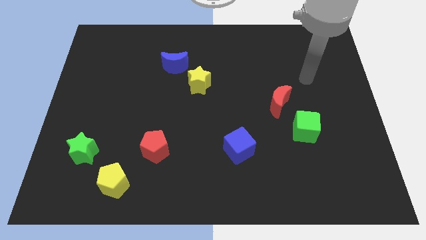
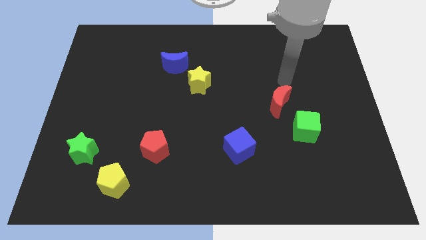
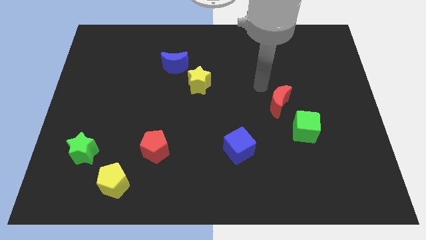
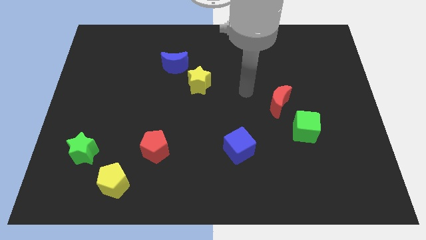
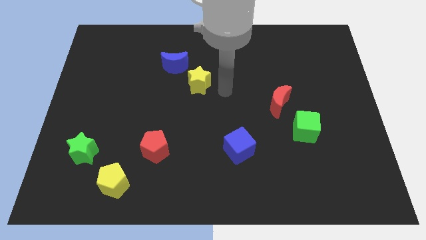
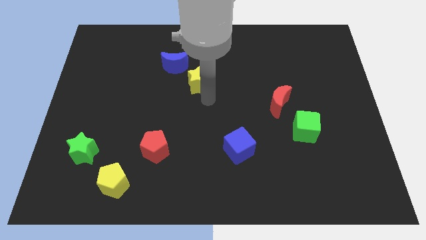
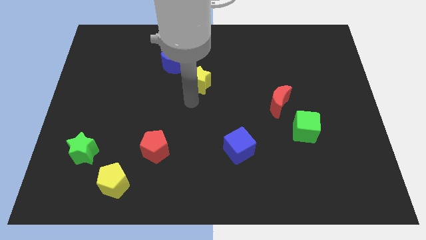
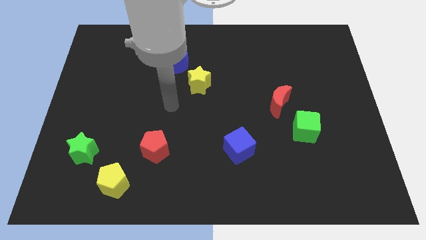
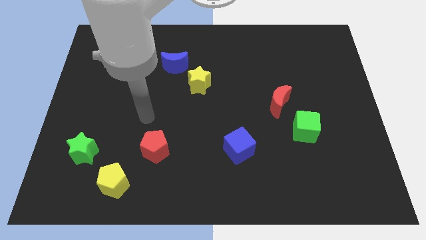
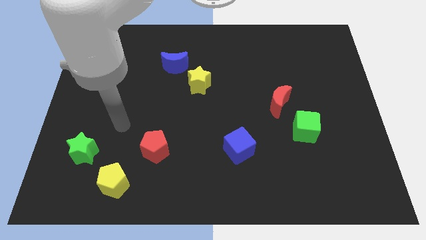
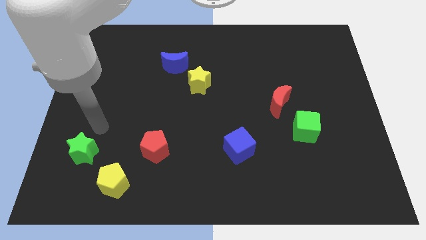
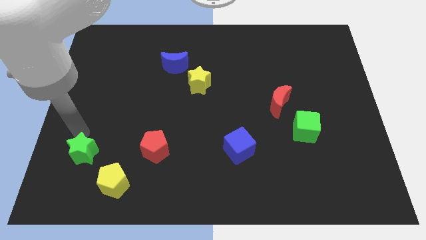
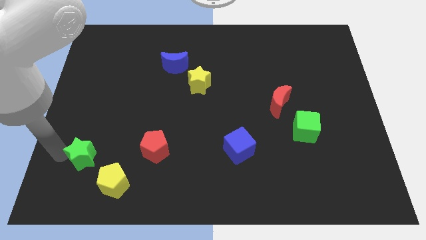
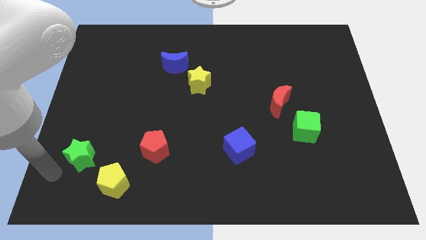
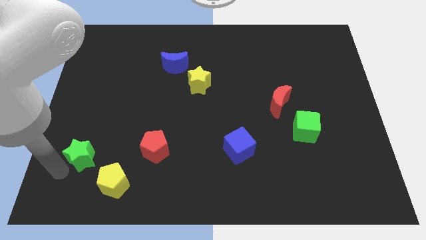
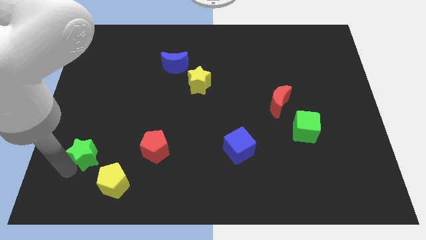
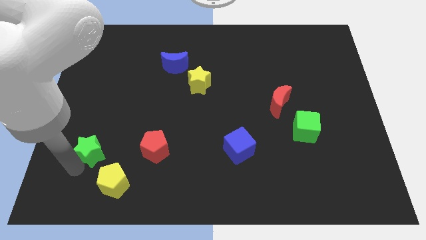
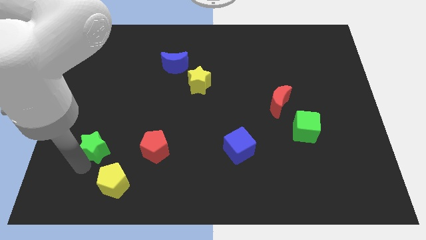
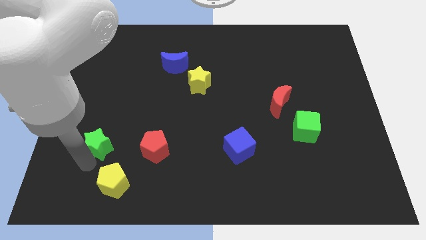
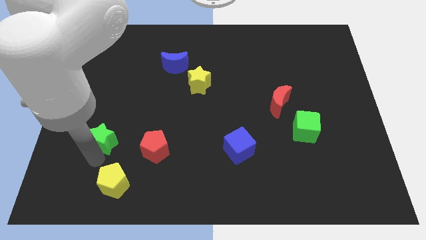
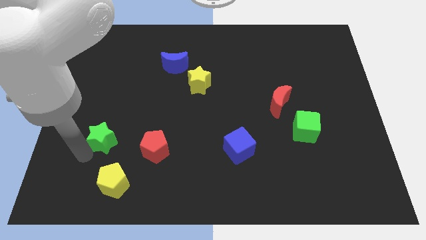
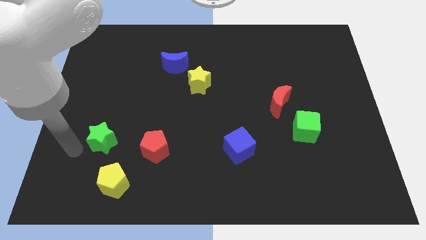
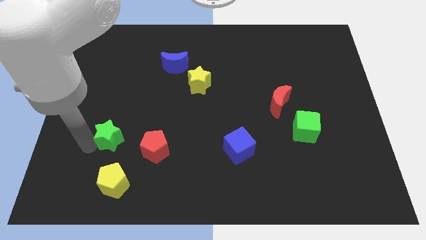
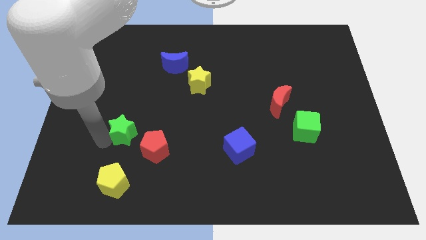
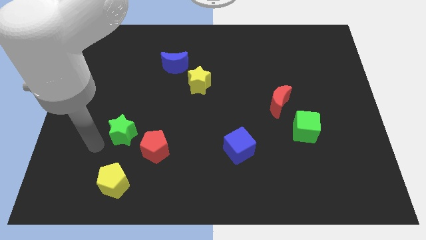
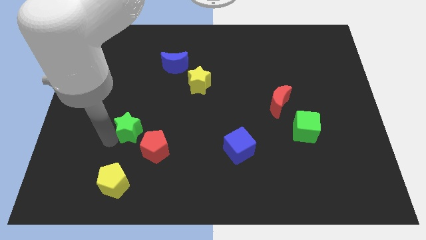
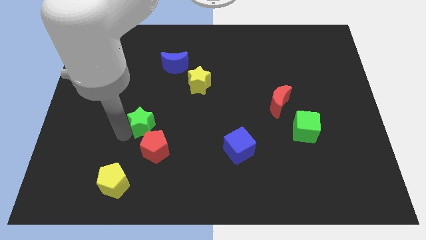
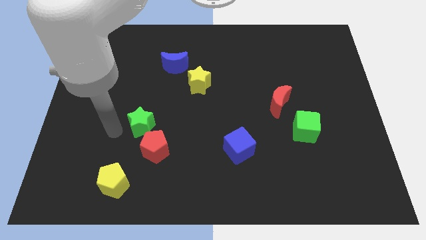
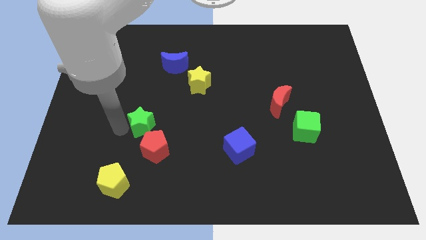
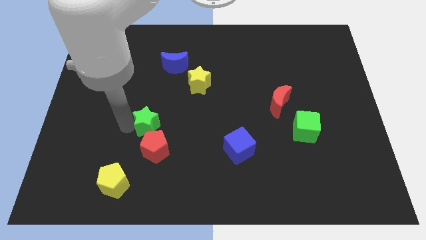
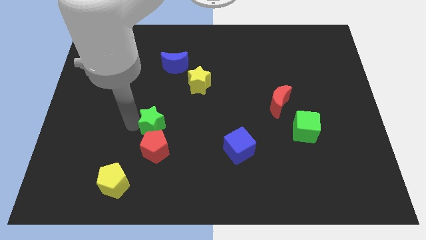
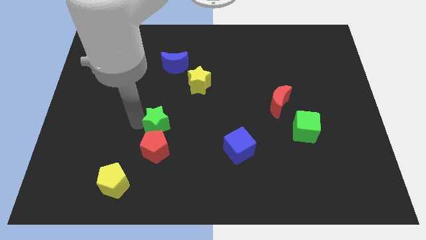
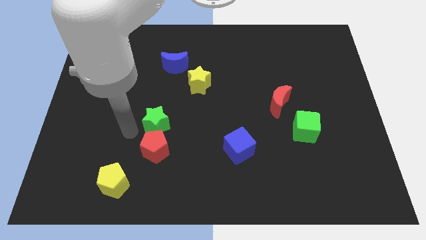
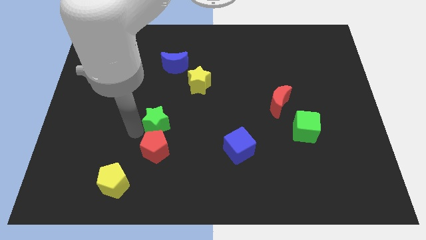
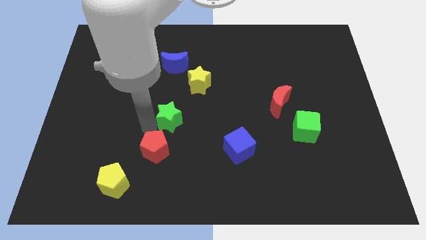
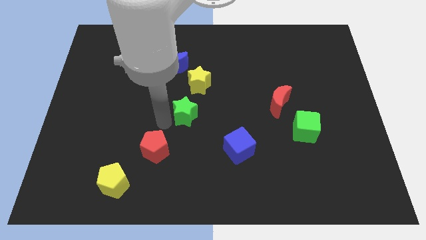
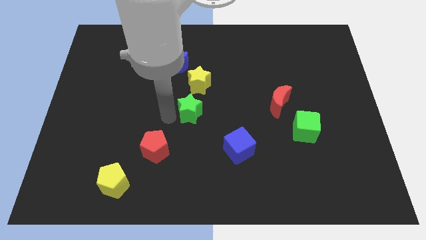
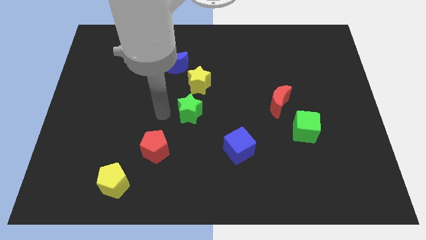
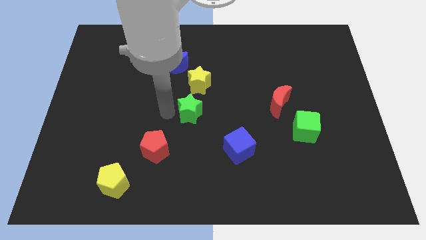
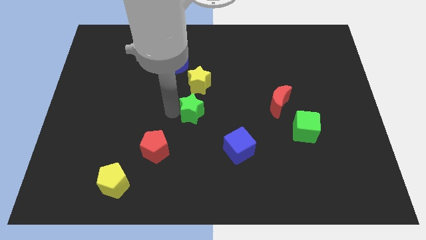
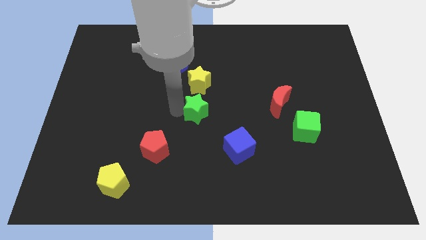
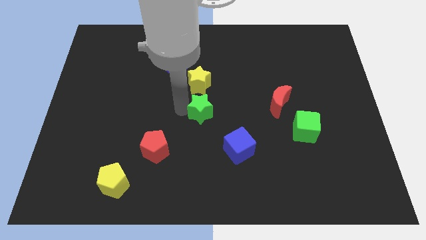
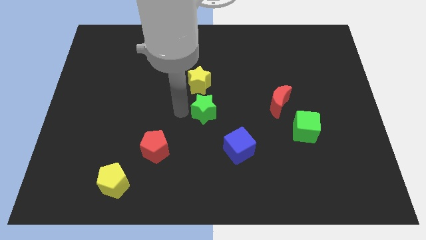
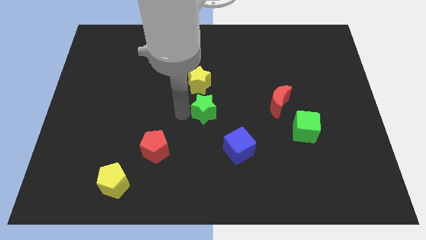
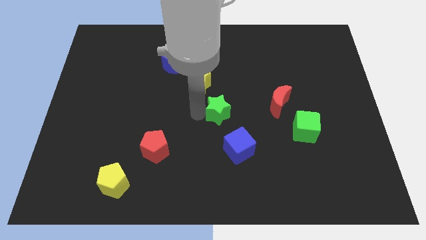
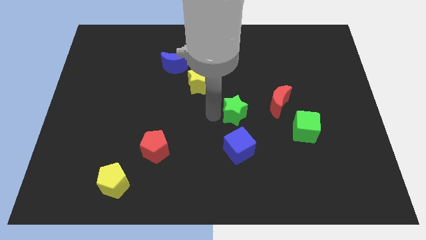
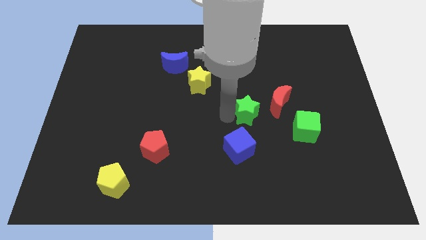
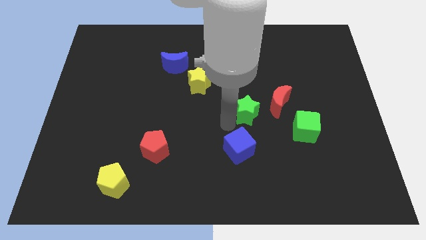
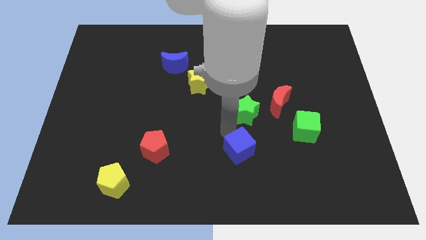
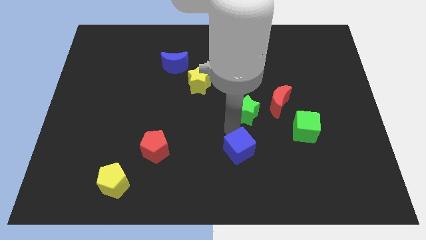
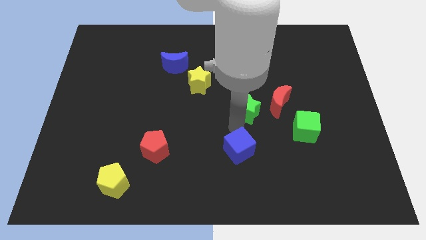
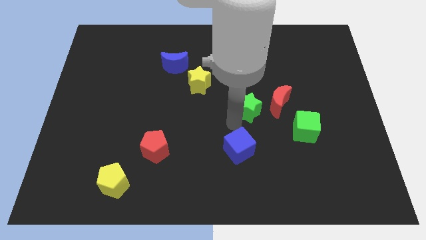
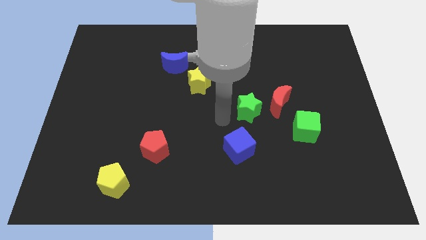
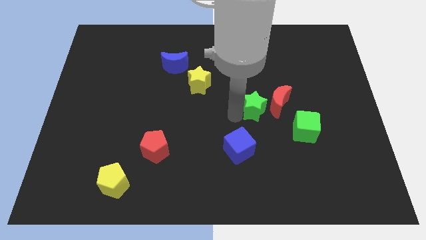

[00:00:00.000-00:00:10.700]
slide the green star next to the red moon

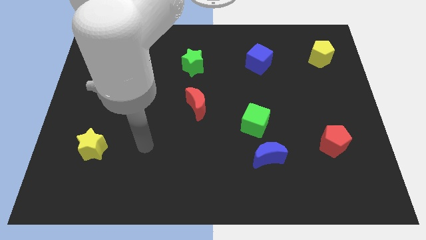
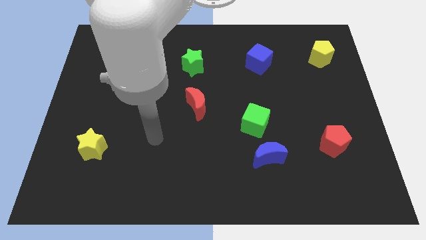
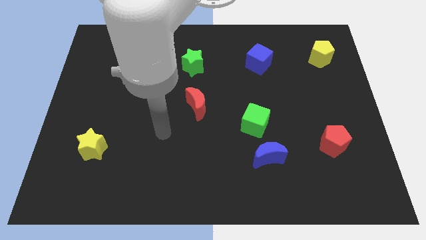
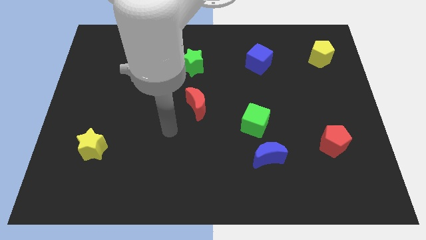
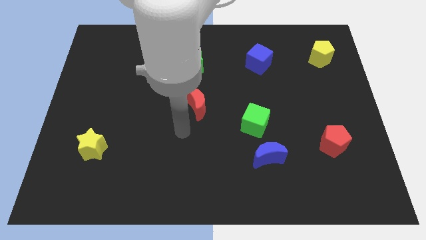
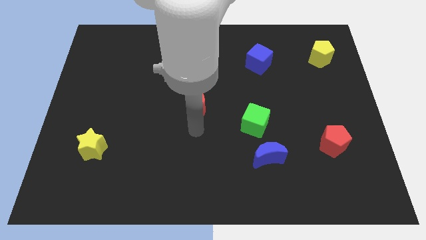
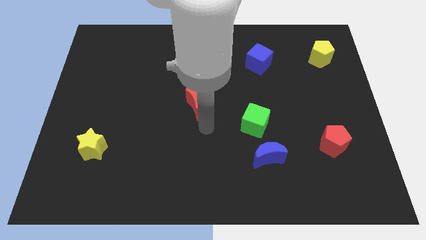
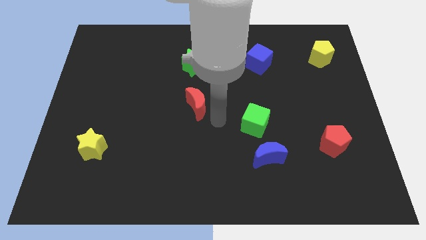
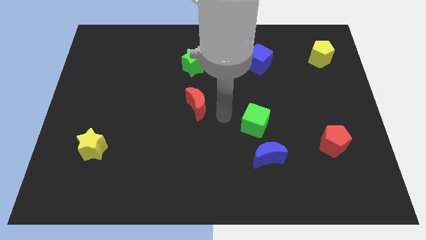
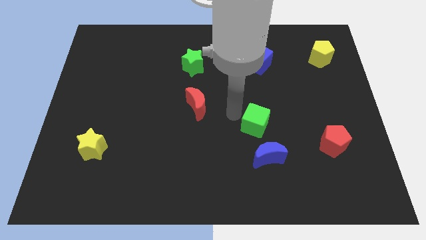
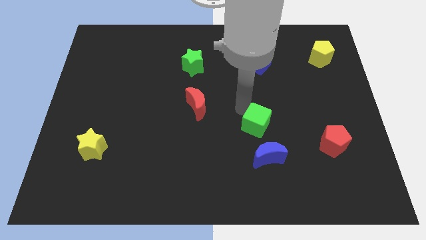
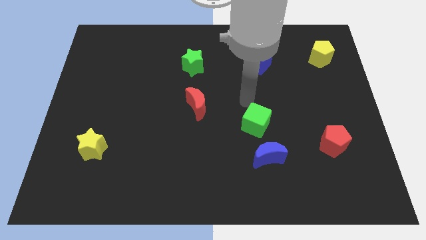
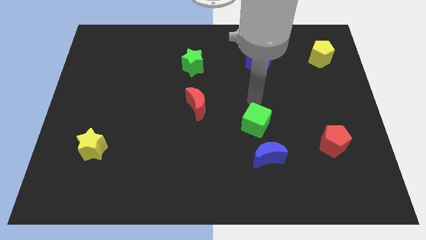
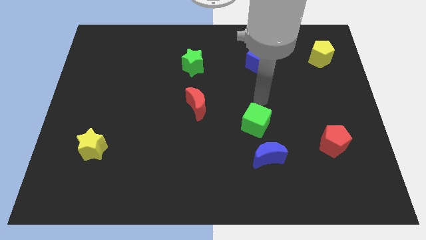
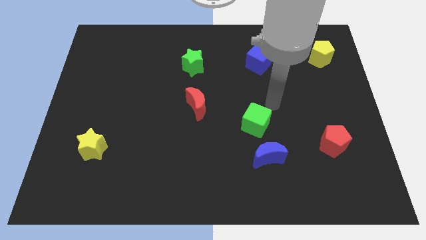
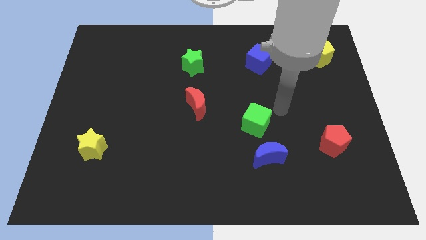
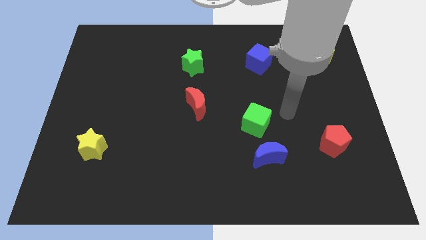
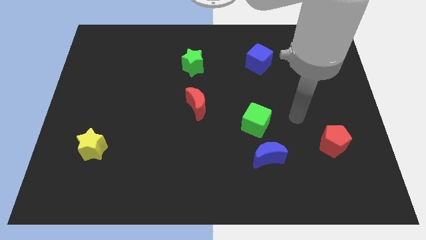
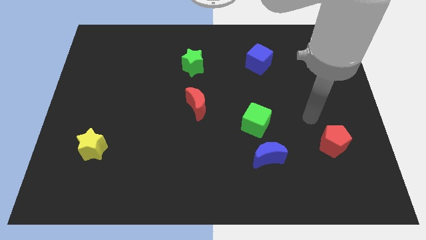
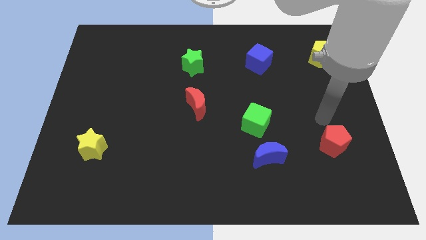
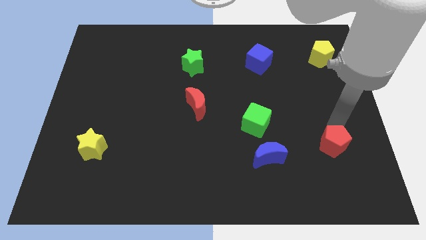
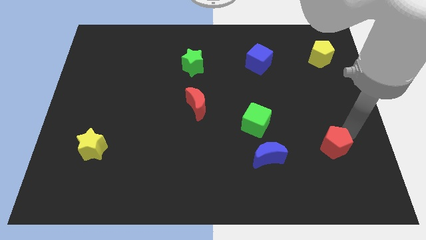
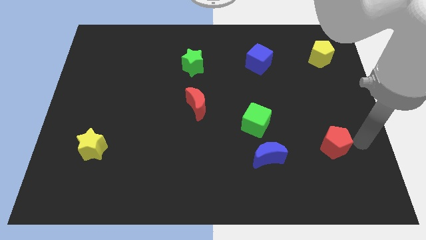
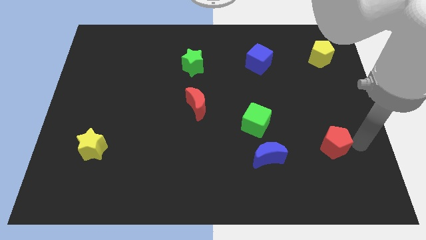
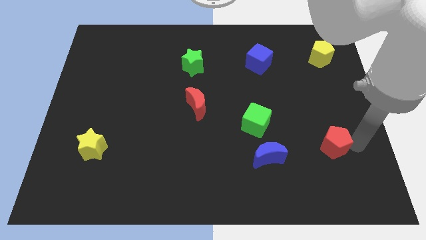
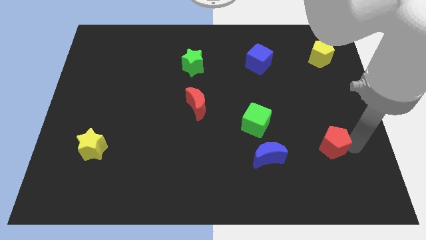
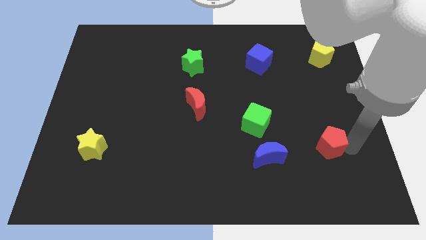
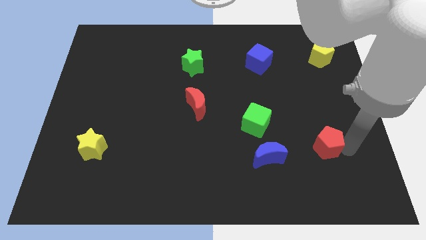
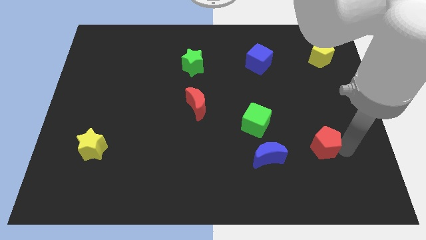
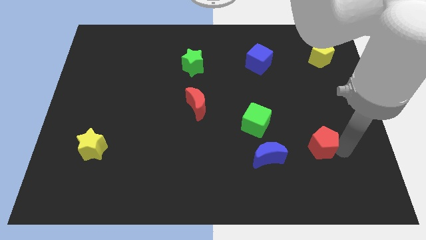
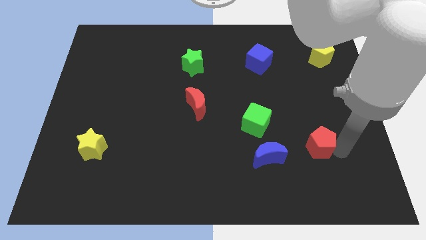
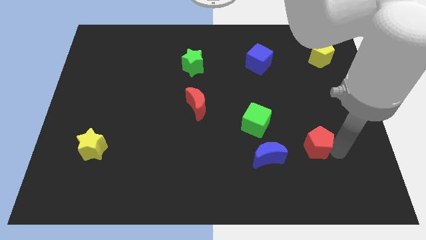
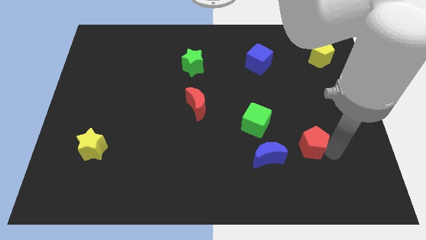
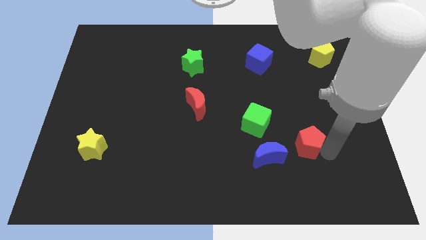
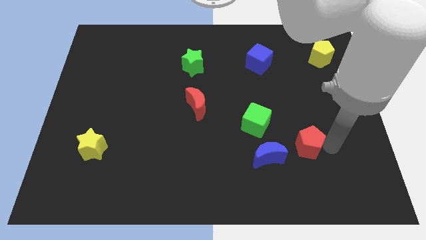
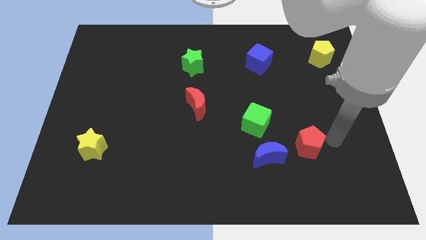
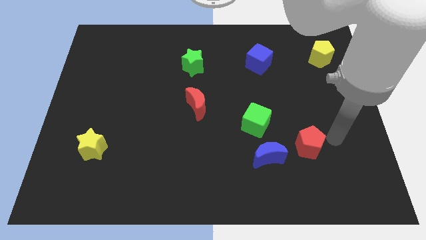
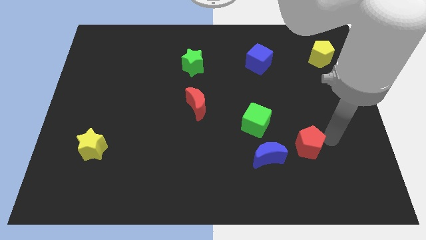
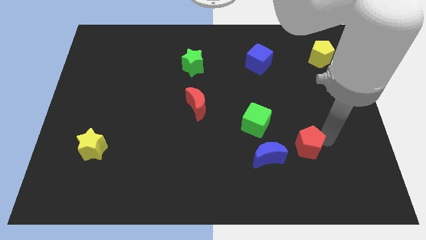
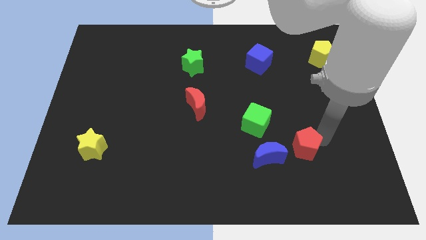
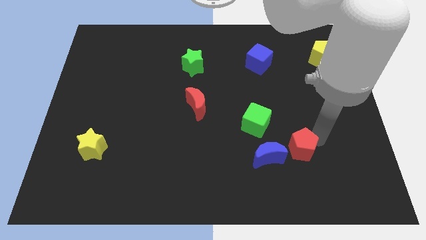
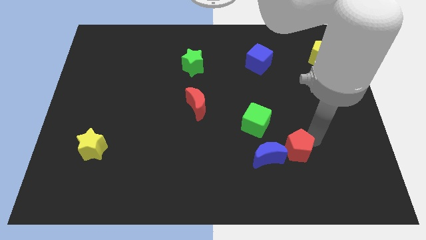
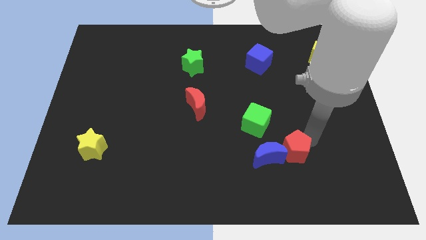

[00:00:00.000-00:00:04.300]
slide the red pentagon close to the blue moon
